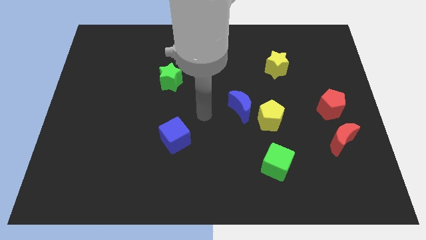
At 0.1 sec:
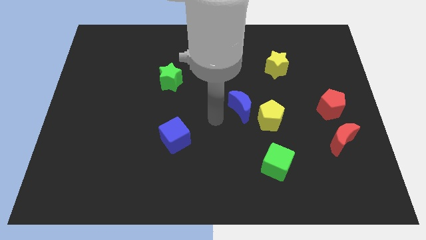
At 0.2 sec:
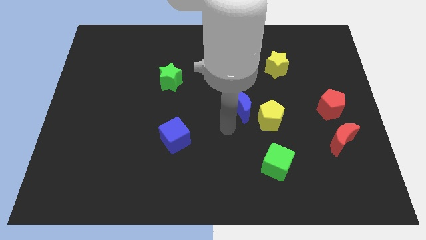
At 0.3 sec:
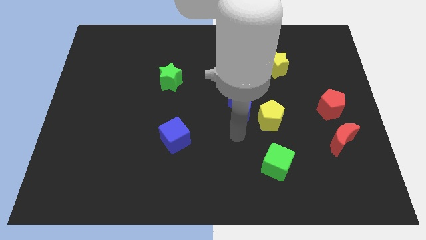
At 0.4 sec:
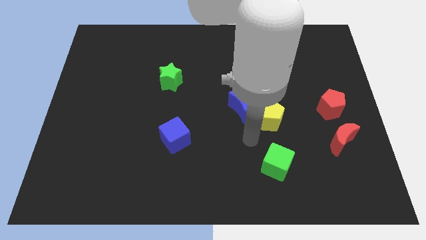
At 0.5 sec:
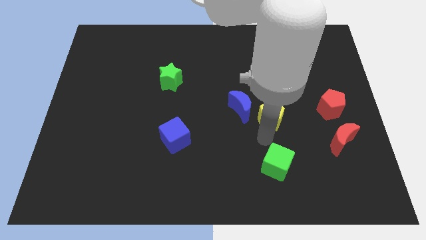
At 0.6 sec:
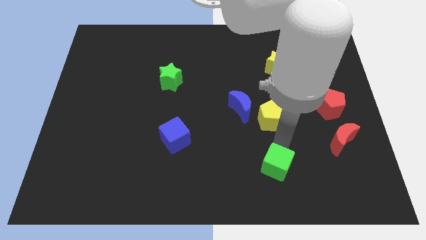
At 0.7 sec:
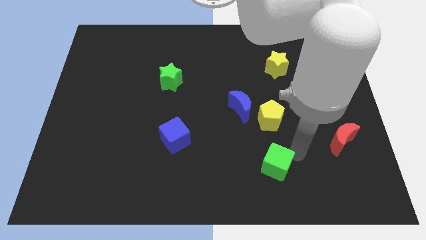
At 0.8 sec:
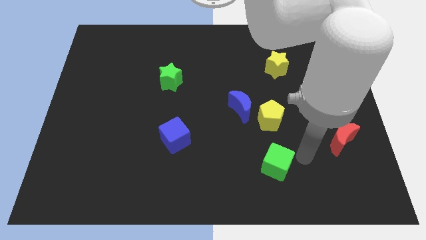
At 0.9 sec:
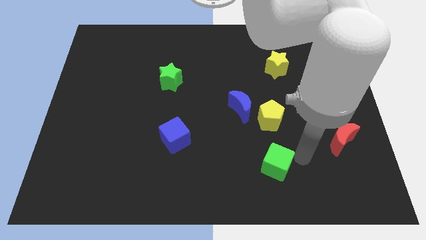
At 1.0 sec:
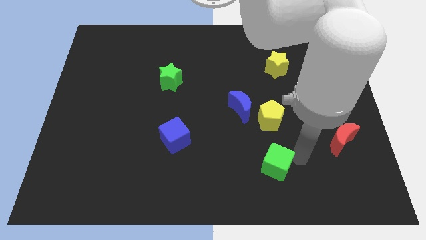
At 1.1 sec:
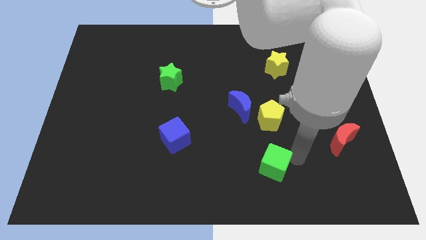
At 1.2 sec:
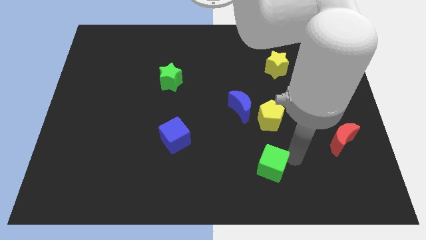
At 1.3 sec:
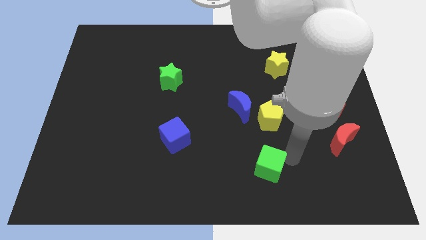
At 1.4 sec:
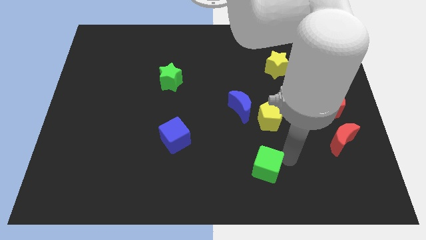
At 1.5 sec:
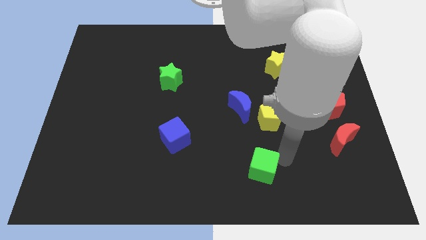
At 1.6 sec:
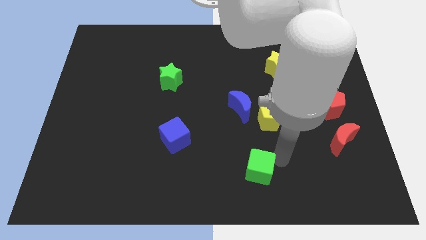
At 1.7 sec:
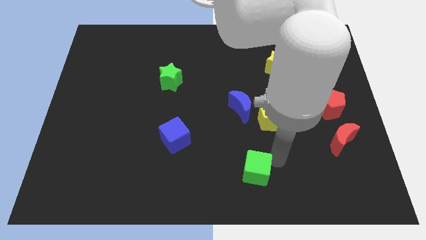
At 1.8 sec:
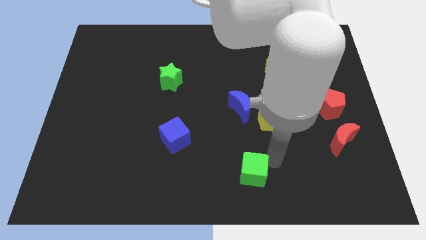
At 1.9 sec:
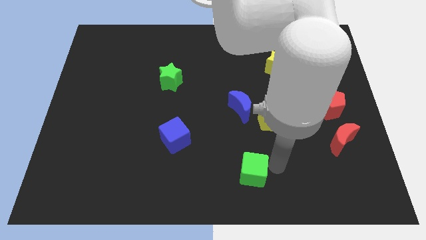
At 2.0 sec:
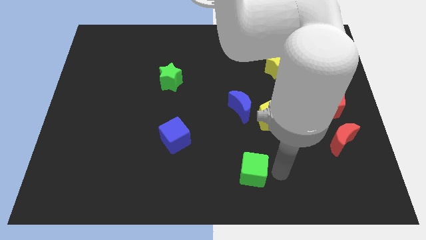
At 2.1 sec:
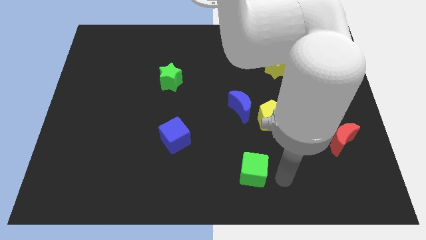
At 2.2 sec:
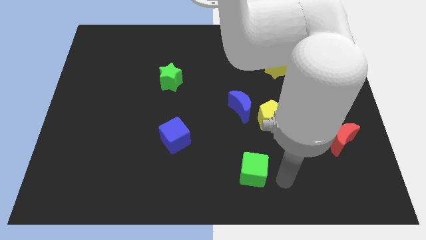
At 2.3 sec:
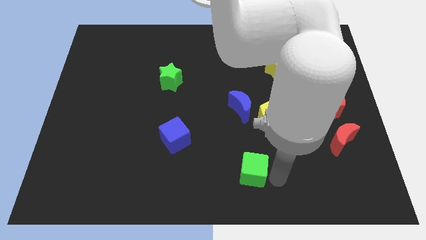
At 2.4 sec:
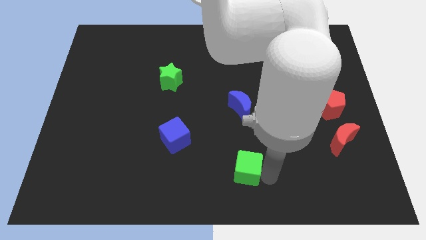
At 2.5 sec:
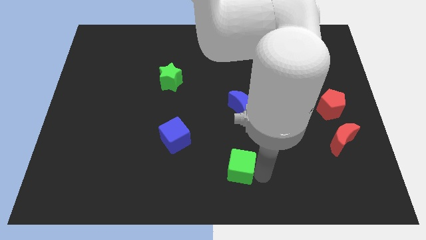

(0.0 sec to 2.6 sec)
push the green cube somewhat to the left

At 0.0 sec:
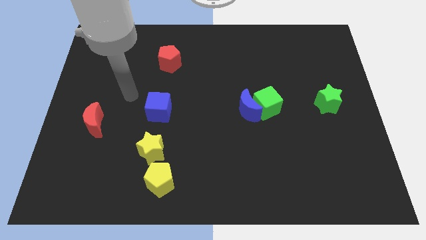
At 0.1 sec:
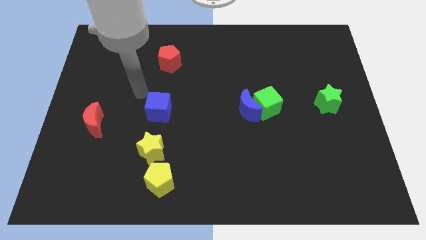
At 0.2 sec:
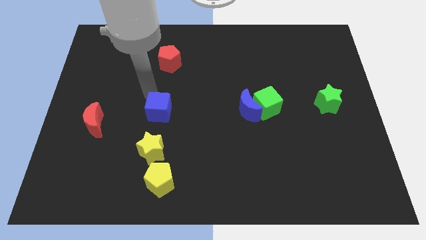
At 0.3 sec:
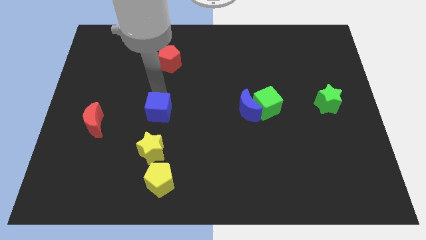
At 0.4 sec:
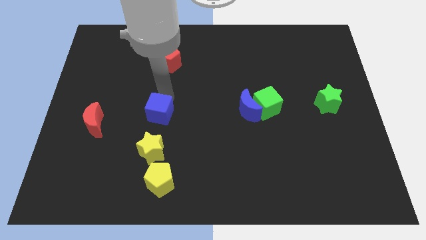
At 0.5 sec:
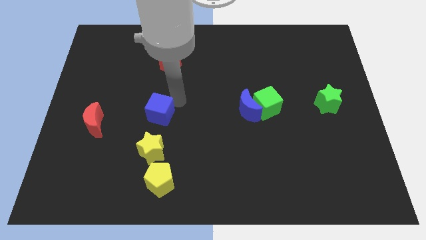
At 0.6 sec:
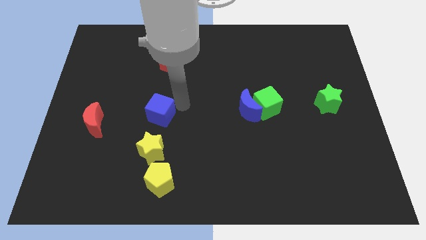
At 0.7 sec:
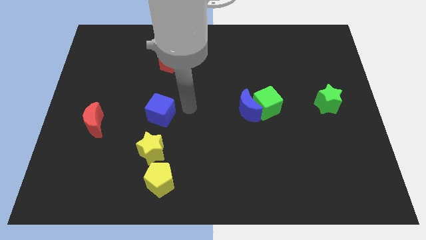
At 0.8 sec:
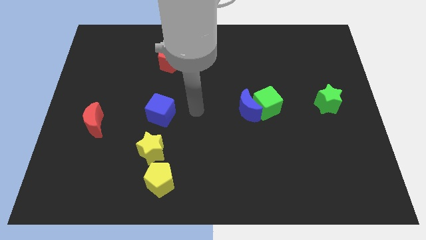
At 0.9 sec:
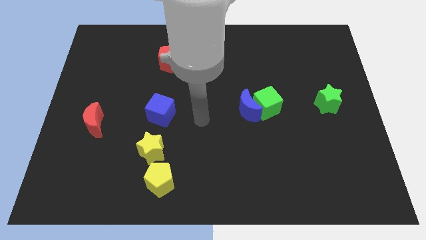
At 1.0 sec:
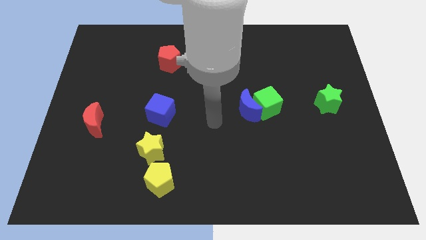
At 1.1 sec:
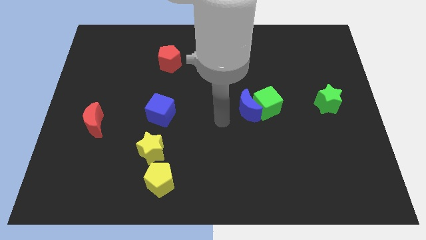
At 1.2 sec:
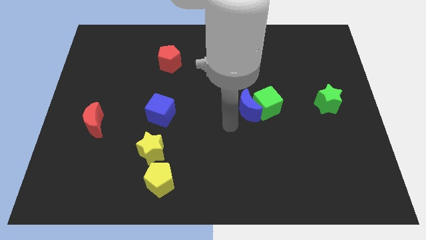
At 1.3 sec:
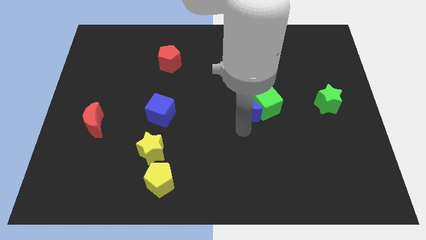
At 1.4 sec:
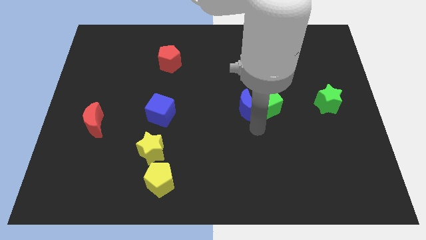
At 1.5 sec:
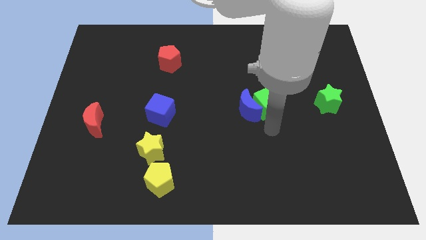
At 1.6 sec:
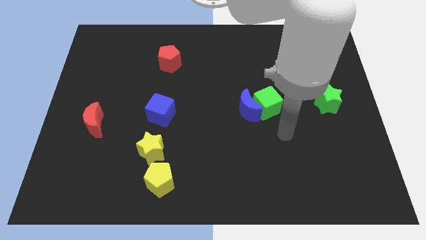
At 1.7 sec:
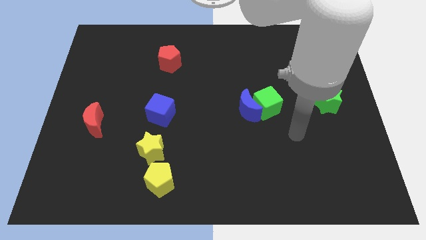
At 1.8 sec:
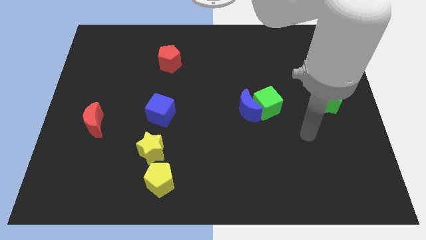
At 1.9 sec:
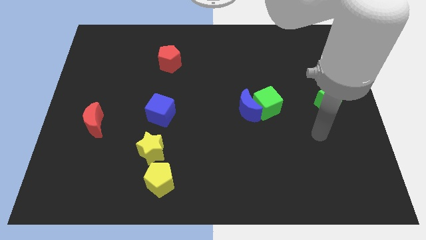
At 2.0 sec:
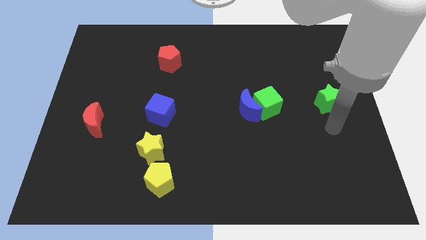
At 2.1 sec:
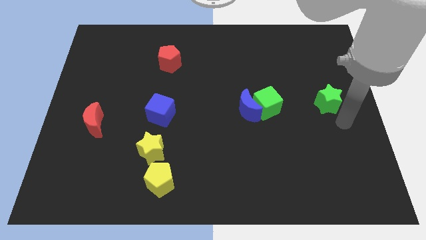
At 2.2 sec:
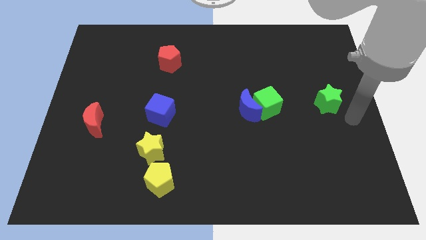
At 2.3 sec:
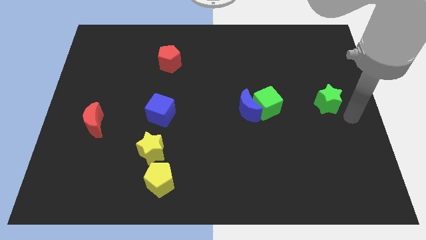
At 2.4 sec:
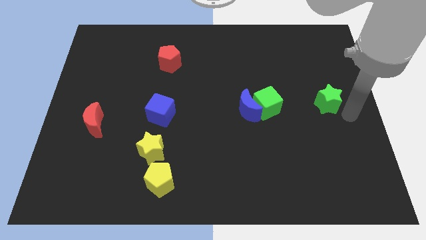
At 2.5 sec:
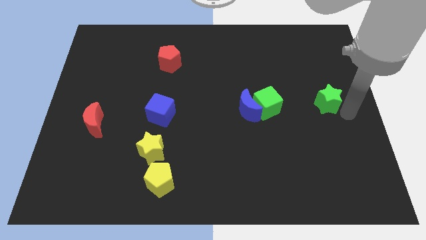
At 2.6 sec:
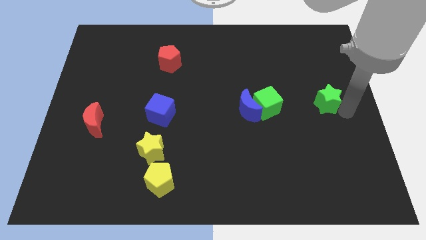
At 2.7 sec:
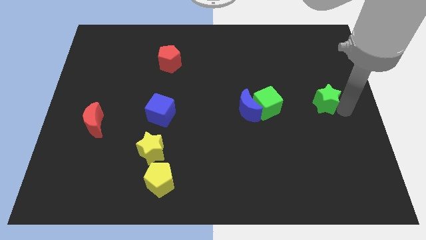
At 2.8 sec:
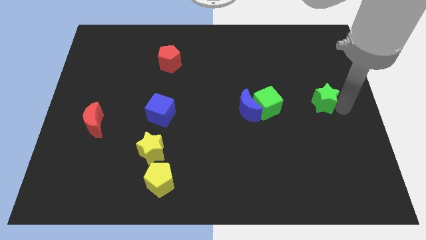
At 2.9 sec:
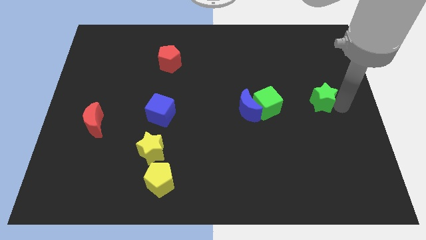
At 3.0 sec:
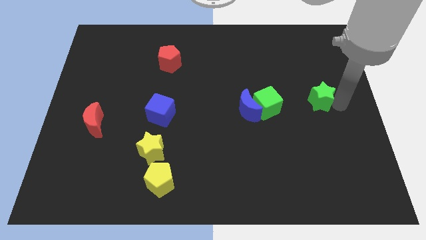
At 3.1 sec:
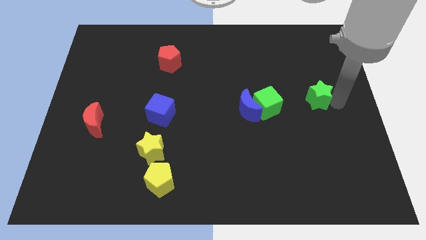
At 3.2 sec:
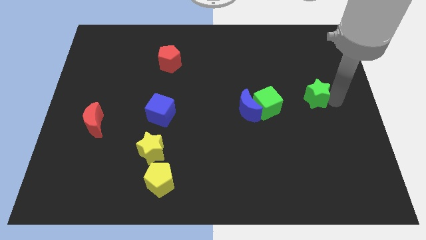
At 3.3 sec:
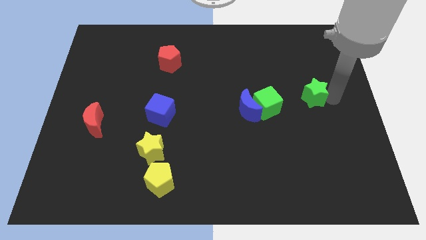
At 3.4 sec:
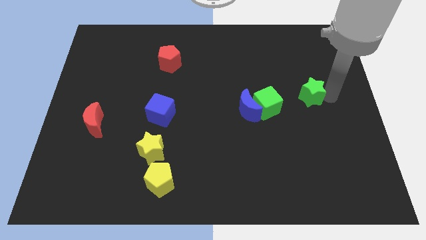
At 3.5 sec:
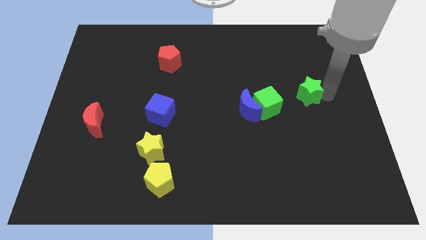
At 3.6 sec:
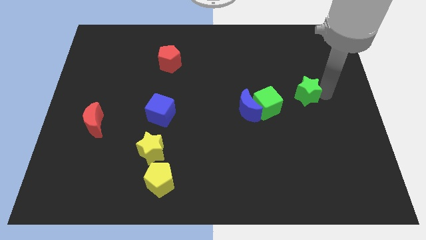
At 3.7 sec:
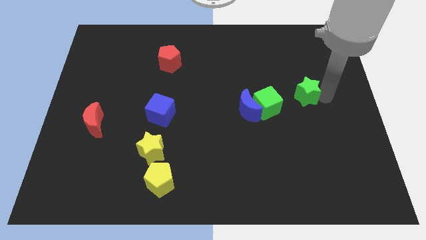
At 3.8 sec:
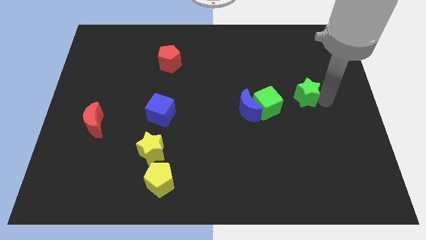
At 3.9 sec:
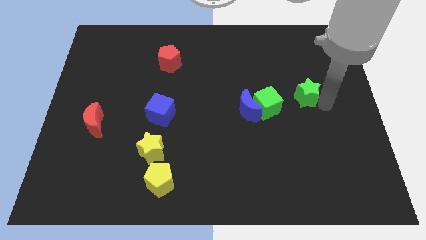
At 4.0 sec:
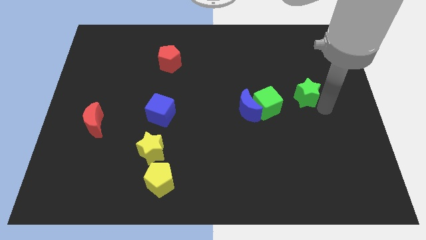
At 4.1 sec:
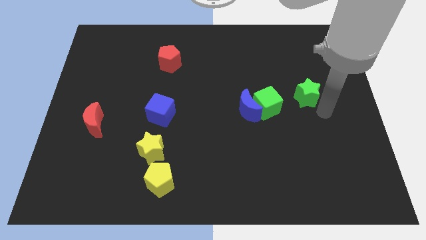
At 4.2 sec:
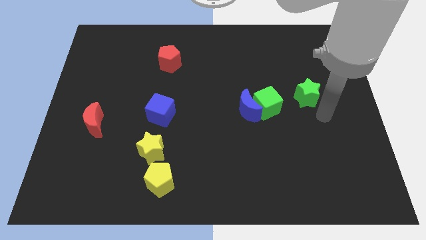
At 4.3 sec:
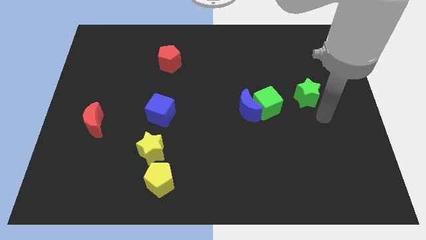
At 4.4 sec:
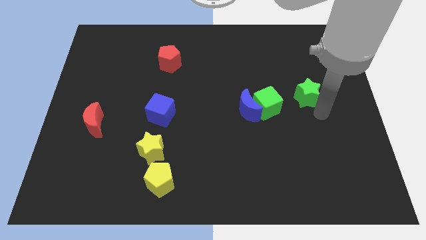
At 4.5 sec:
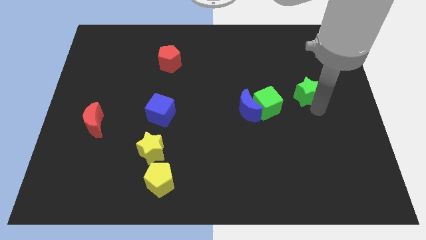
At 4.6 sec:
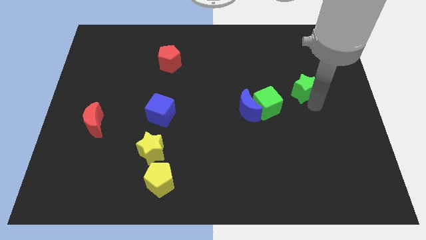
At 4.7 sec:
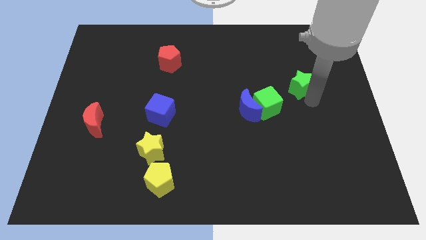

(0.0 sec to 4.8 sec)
slightly move the green star up and left

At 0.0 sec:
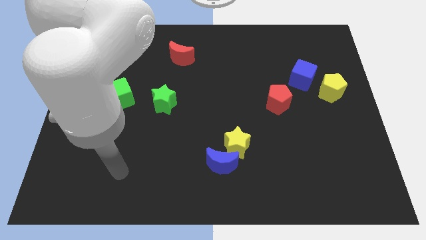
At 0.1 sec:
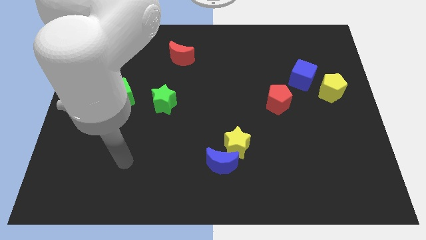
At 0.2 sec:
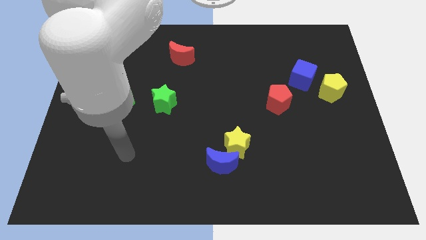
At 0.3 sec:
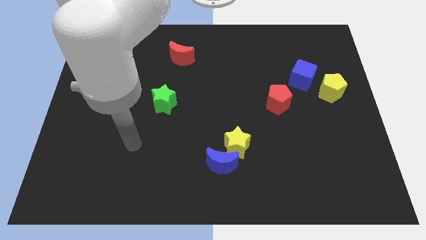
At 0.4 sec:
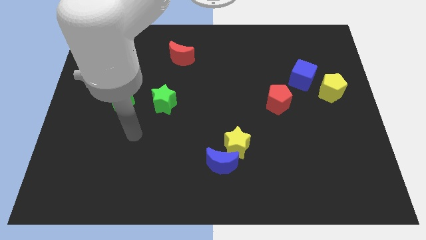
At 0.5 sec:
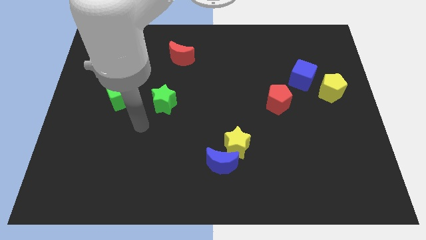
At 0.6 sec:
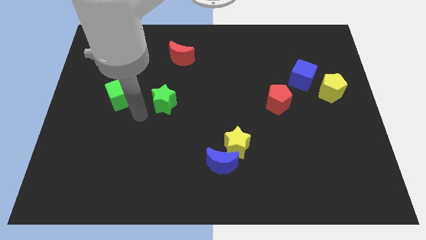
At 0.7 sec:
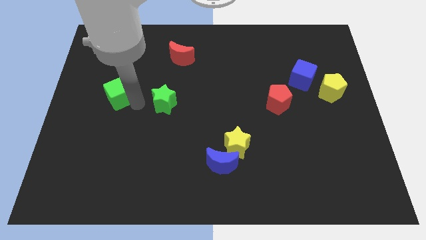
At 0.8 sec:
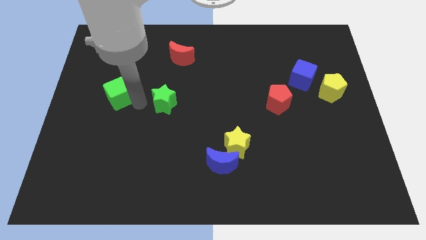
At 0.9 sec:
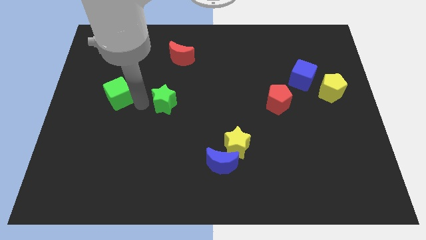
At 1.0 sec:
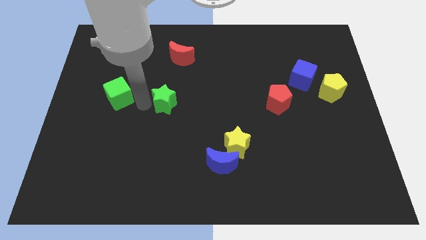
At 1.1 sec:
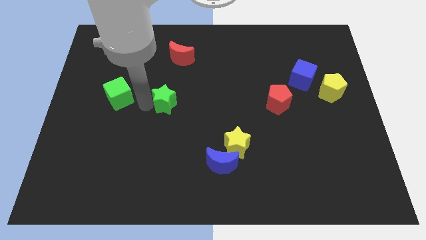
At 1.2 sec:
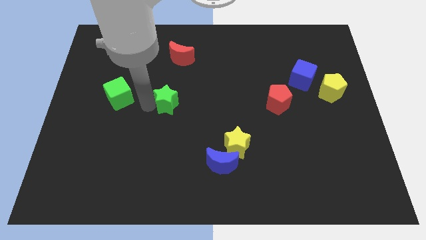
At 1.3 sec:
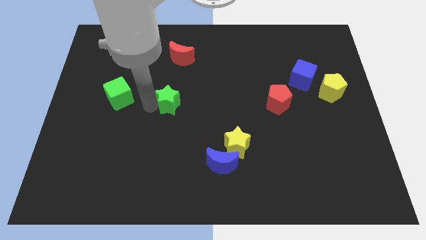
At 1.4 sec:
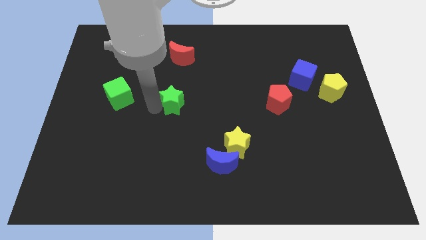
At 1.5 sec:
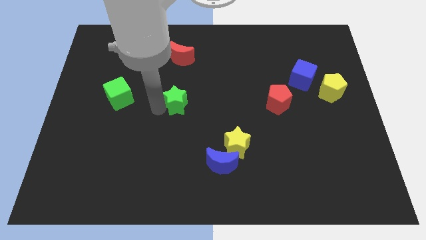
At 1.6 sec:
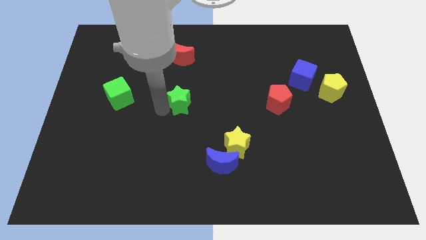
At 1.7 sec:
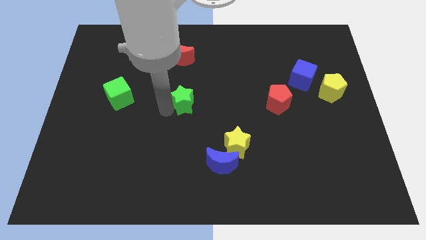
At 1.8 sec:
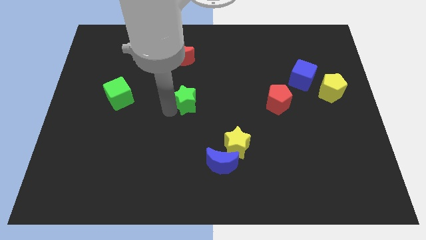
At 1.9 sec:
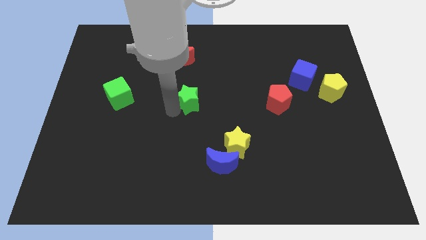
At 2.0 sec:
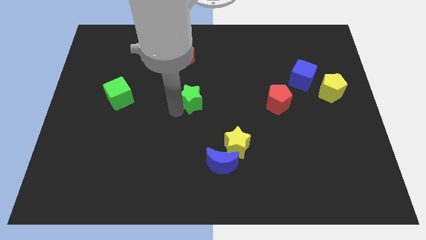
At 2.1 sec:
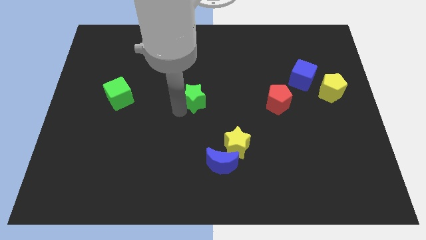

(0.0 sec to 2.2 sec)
slide the green star to the right somewhat
